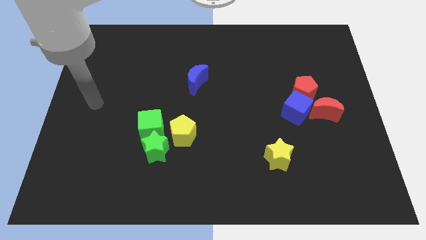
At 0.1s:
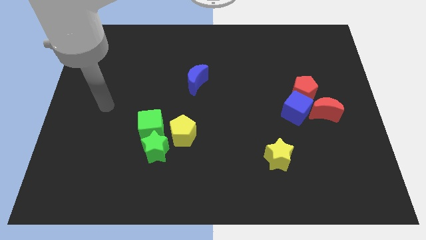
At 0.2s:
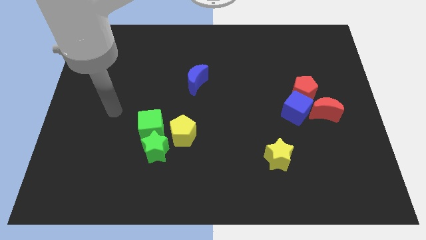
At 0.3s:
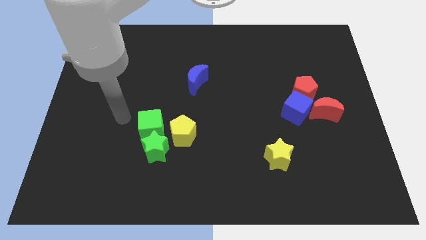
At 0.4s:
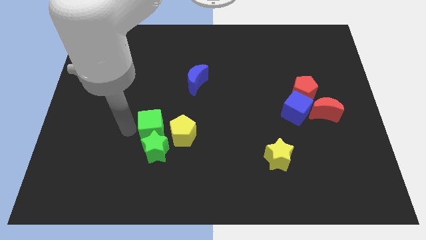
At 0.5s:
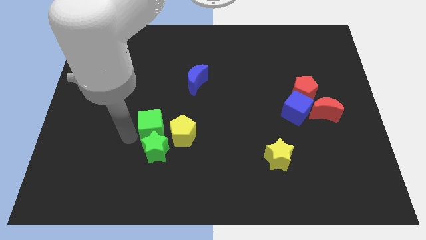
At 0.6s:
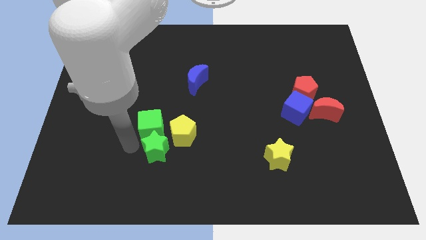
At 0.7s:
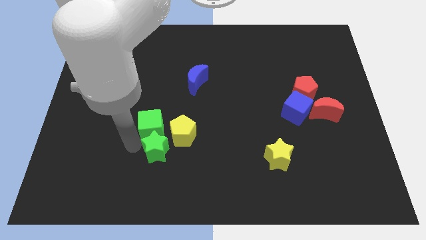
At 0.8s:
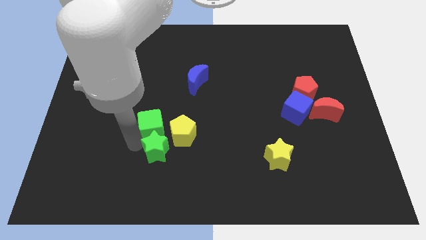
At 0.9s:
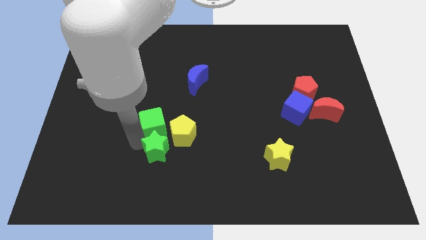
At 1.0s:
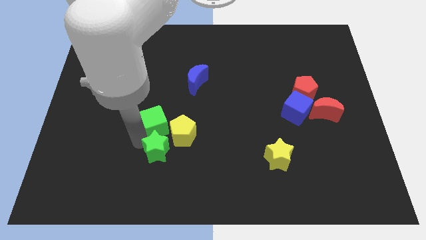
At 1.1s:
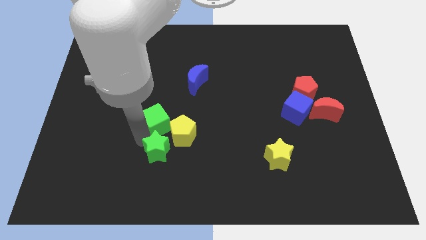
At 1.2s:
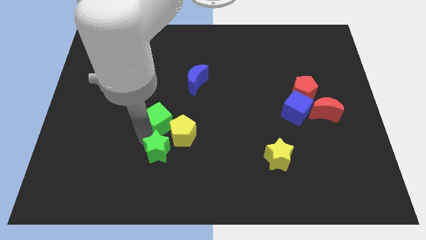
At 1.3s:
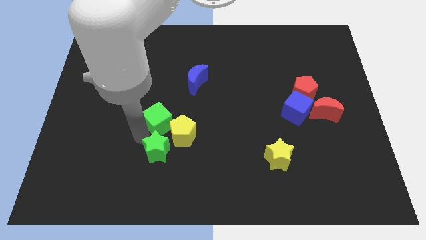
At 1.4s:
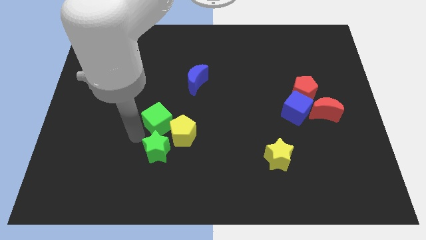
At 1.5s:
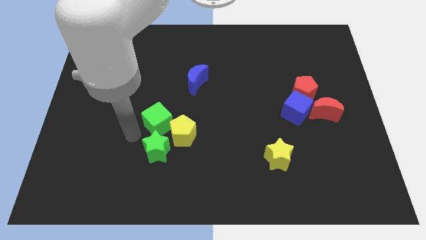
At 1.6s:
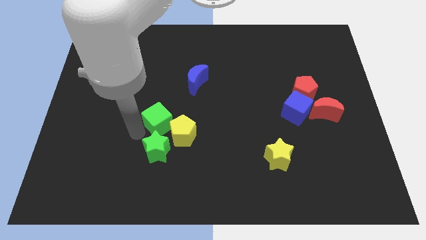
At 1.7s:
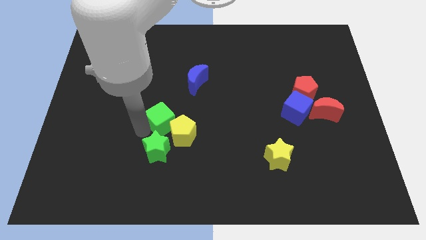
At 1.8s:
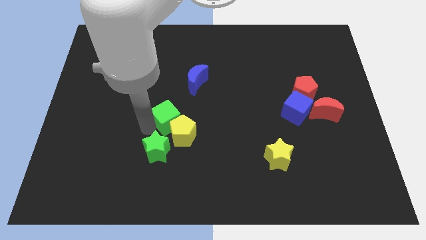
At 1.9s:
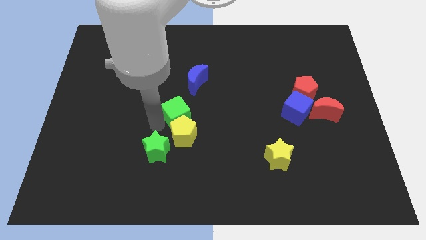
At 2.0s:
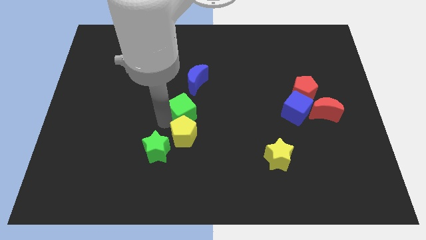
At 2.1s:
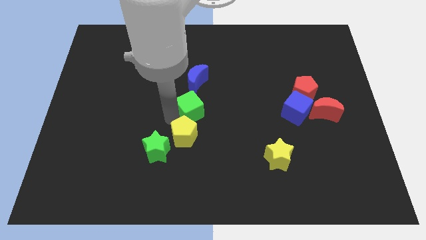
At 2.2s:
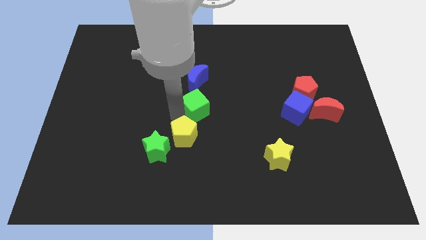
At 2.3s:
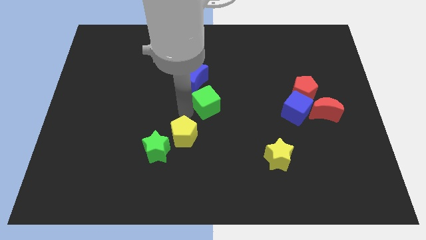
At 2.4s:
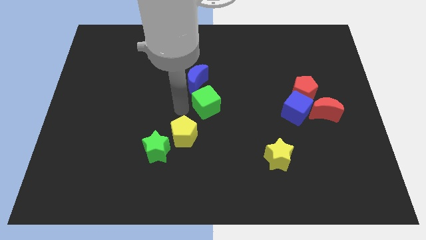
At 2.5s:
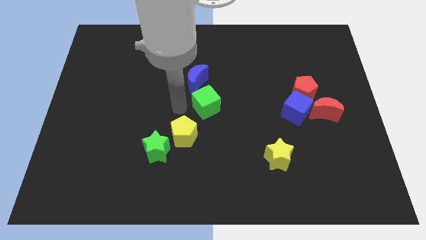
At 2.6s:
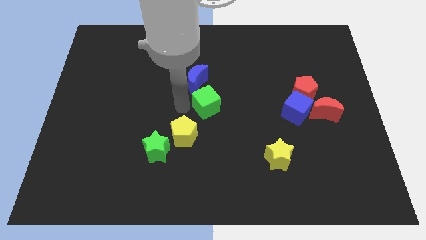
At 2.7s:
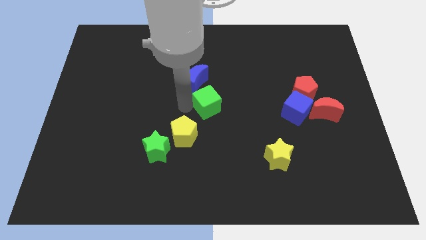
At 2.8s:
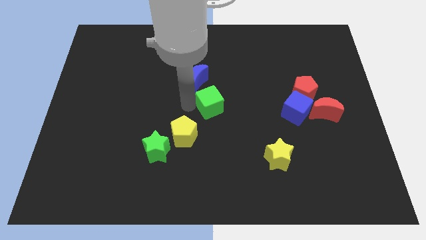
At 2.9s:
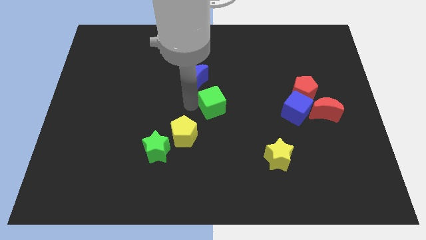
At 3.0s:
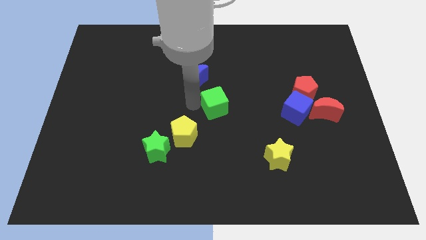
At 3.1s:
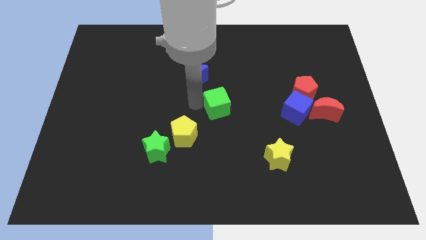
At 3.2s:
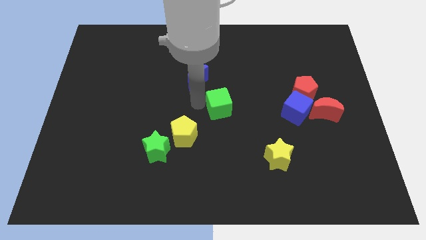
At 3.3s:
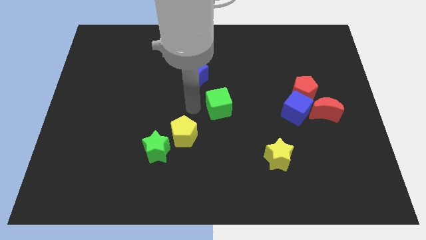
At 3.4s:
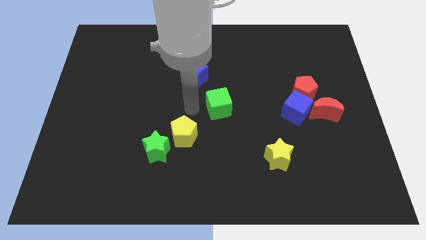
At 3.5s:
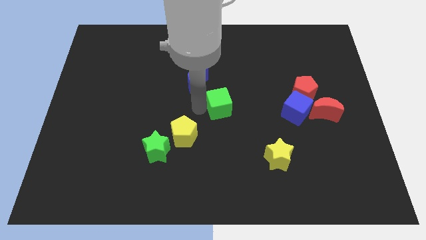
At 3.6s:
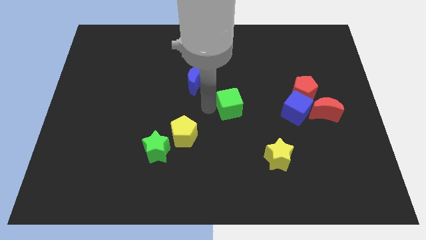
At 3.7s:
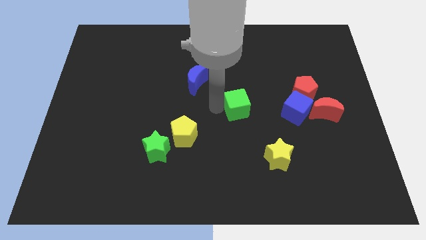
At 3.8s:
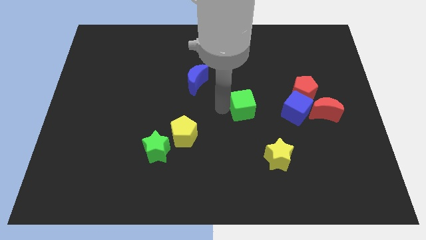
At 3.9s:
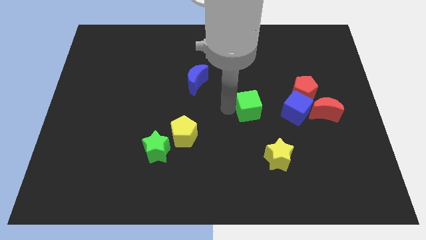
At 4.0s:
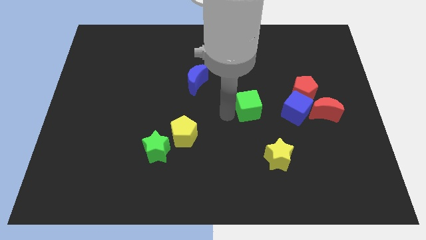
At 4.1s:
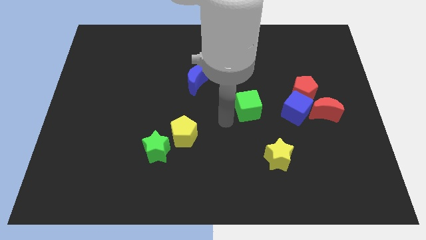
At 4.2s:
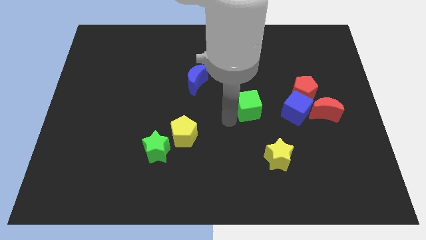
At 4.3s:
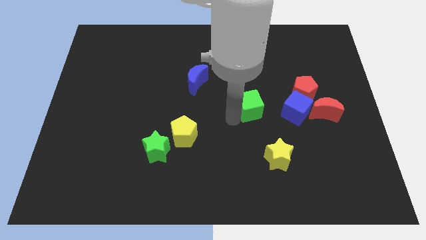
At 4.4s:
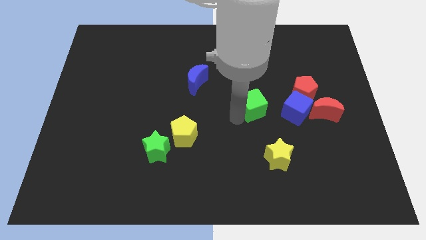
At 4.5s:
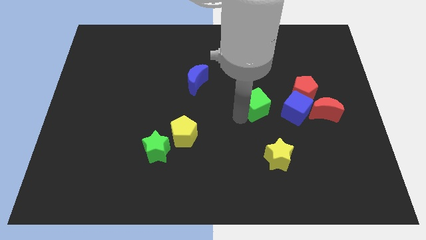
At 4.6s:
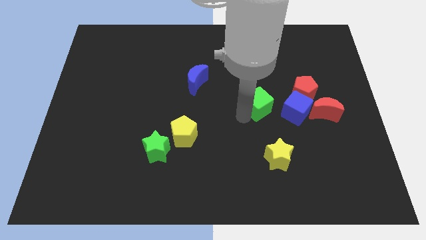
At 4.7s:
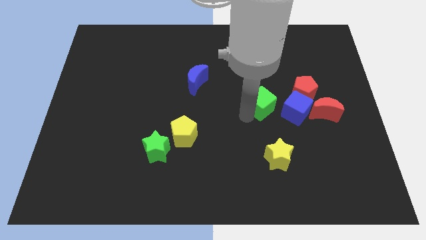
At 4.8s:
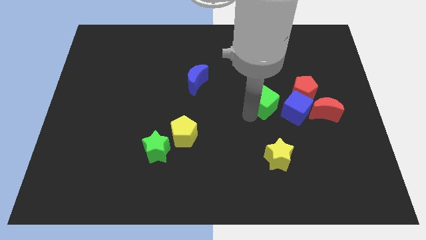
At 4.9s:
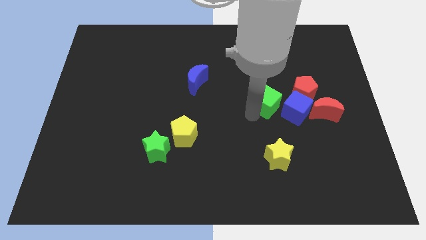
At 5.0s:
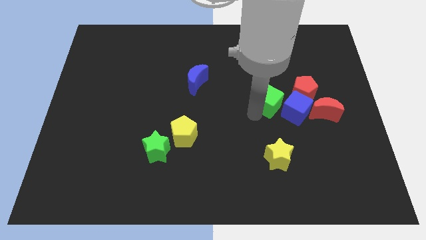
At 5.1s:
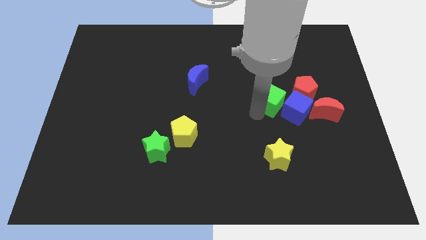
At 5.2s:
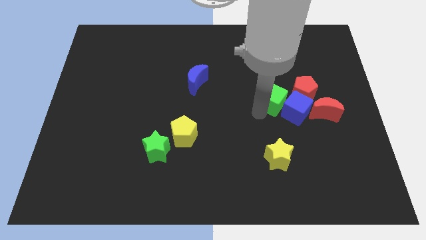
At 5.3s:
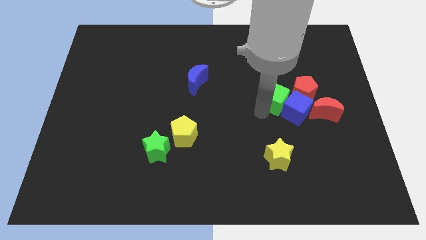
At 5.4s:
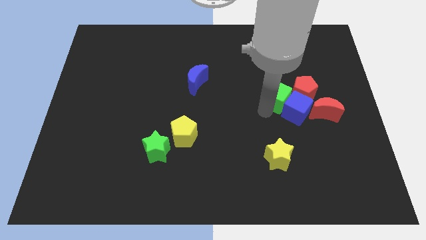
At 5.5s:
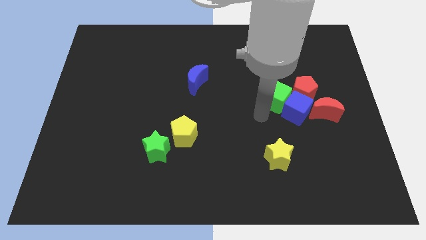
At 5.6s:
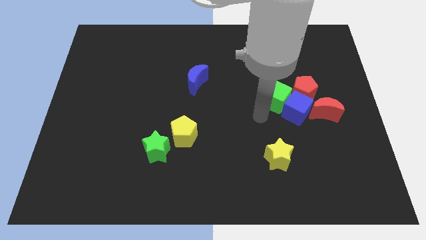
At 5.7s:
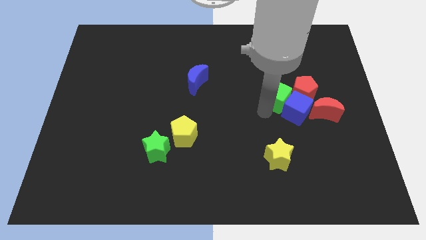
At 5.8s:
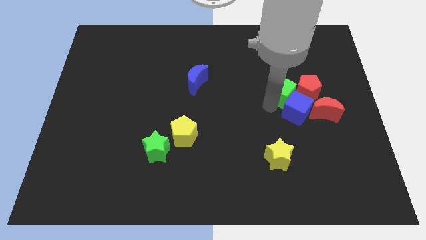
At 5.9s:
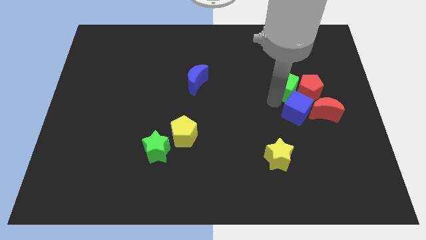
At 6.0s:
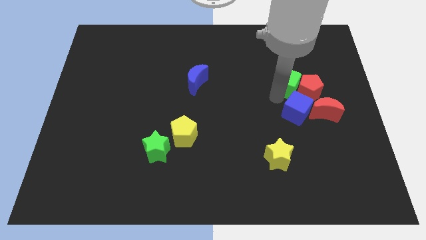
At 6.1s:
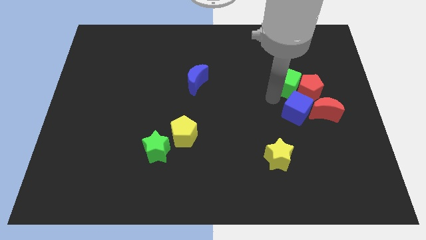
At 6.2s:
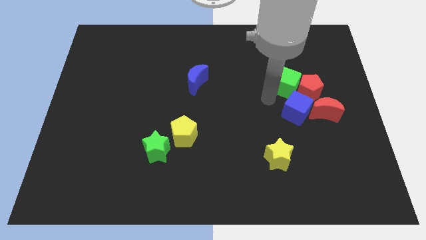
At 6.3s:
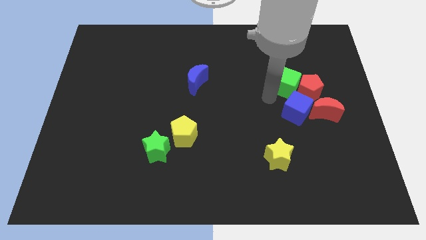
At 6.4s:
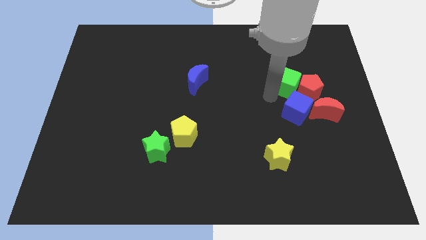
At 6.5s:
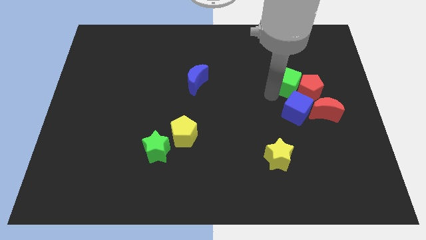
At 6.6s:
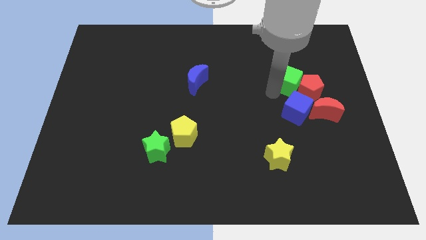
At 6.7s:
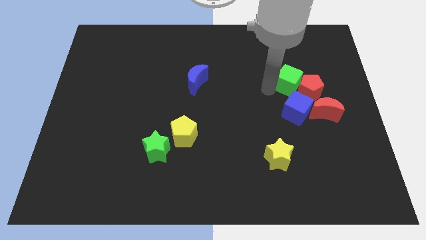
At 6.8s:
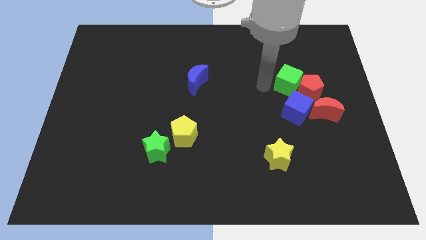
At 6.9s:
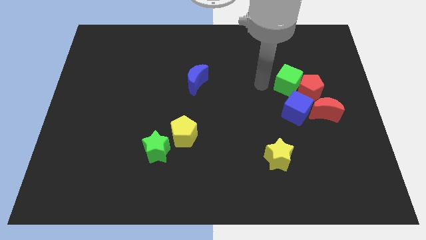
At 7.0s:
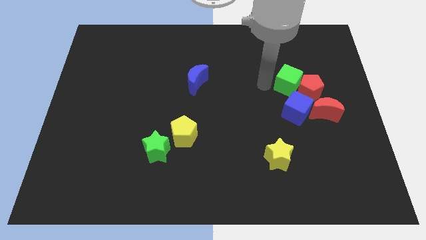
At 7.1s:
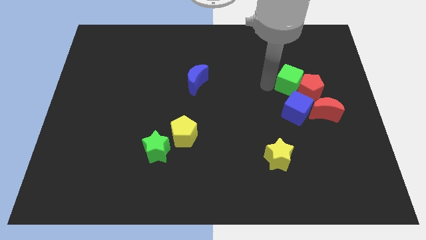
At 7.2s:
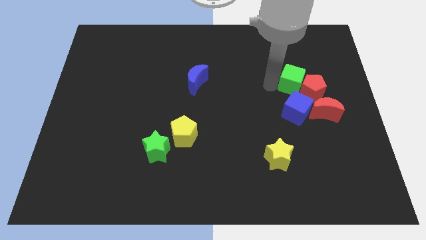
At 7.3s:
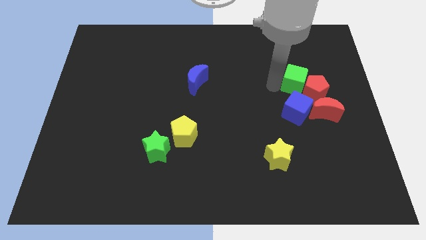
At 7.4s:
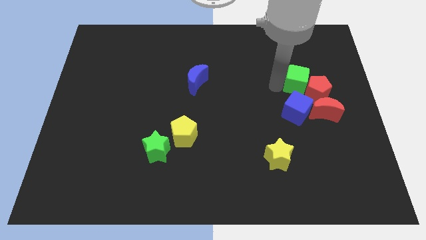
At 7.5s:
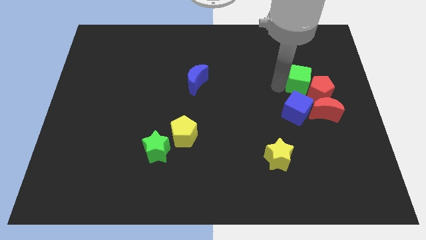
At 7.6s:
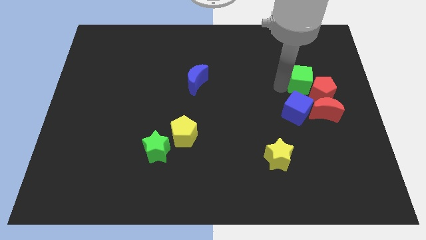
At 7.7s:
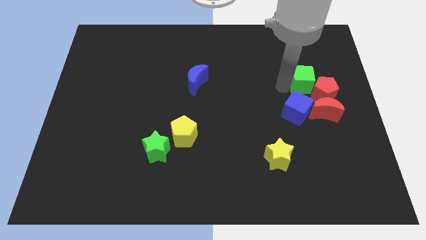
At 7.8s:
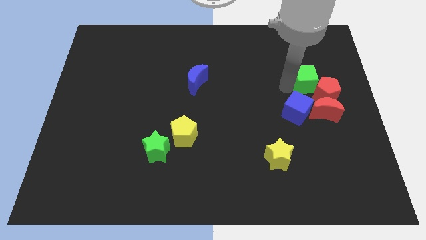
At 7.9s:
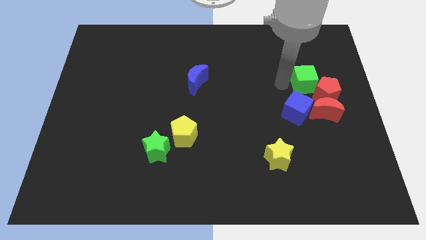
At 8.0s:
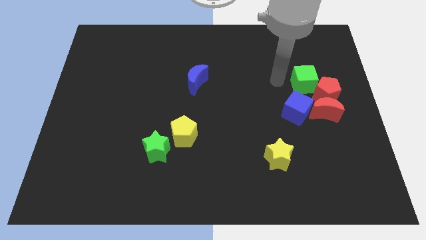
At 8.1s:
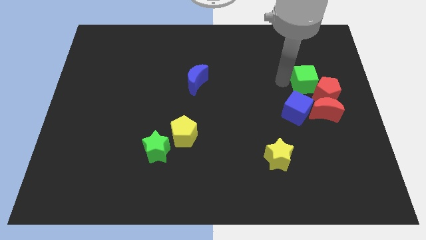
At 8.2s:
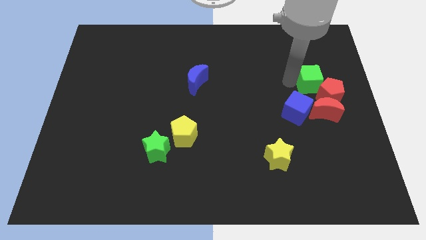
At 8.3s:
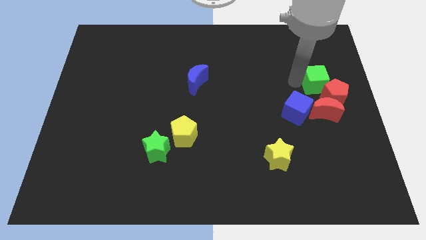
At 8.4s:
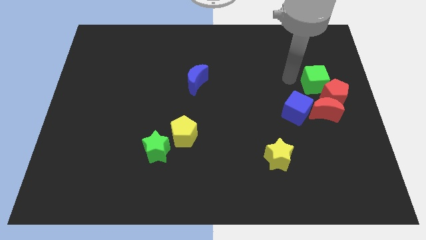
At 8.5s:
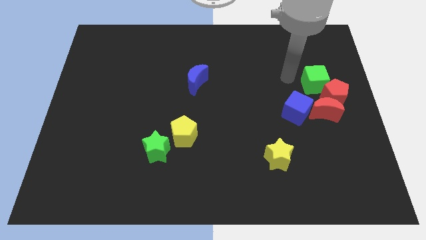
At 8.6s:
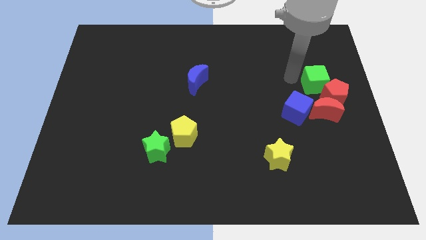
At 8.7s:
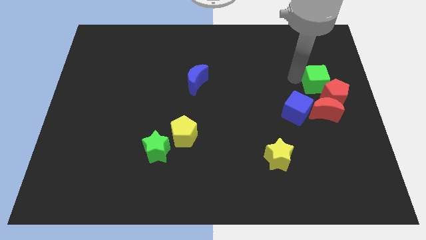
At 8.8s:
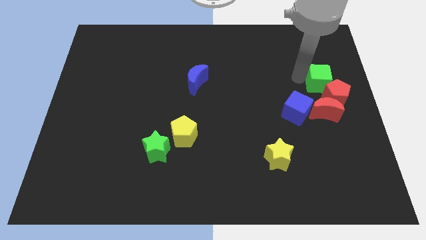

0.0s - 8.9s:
move the green cube to the center right
